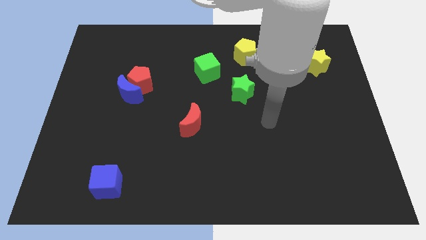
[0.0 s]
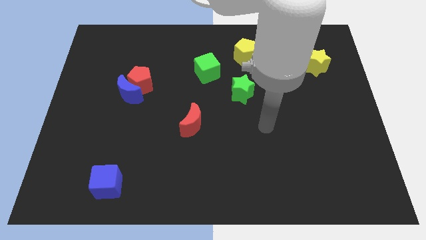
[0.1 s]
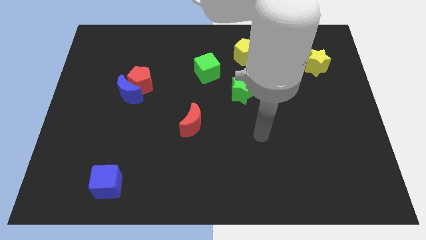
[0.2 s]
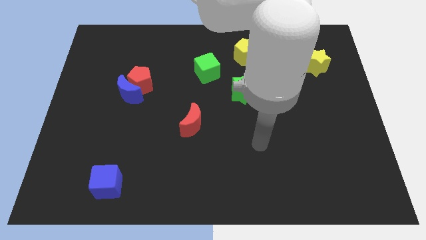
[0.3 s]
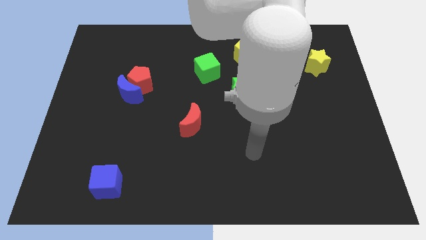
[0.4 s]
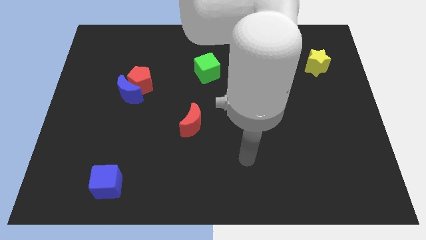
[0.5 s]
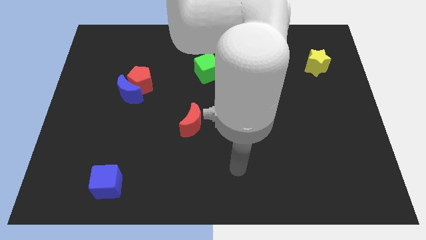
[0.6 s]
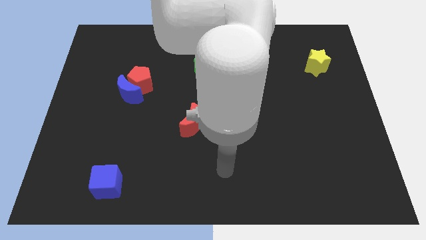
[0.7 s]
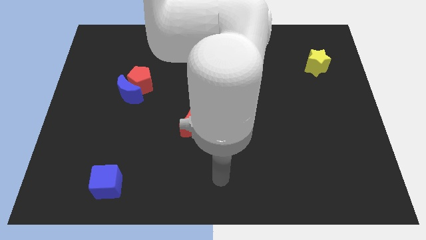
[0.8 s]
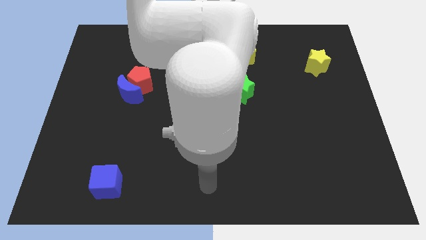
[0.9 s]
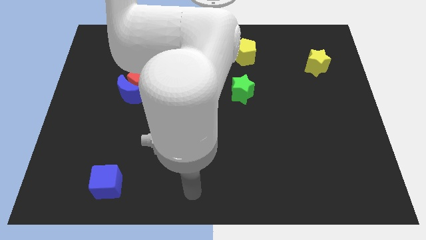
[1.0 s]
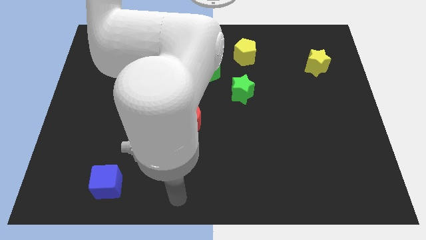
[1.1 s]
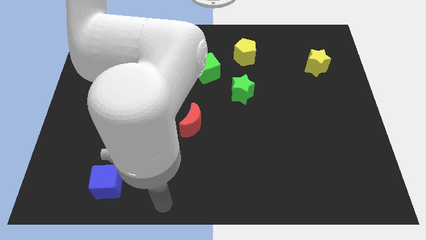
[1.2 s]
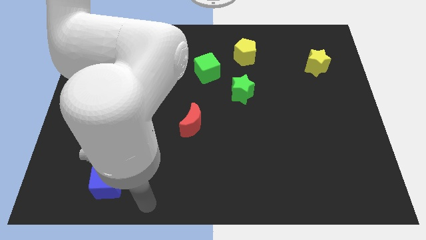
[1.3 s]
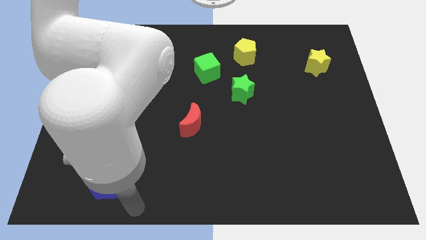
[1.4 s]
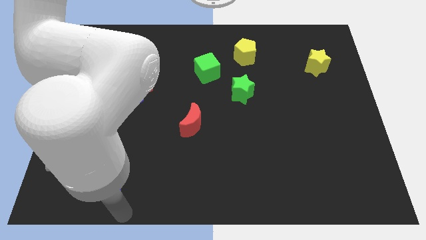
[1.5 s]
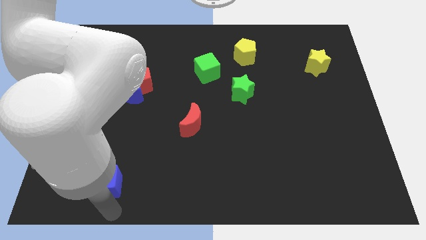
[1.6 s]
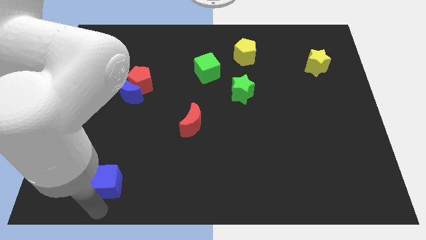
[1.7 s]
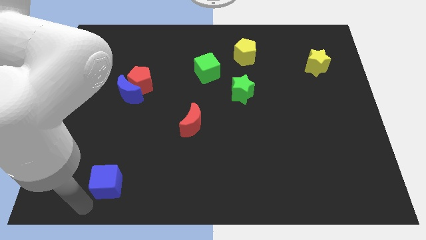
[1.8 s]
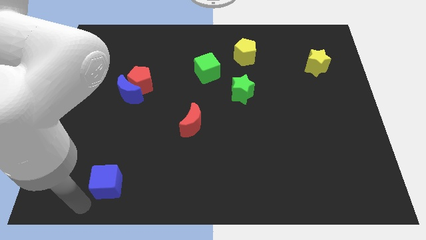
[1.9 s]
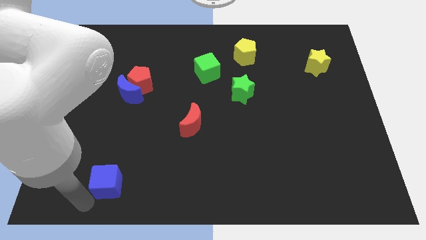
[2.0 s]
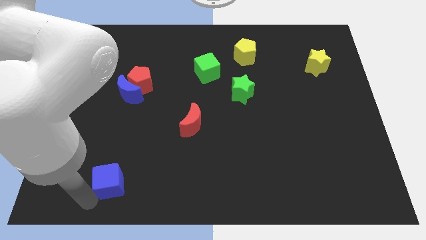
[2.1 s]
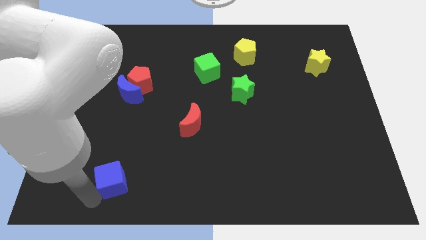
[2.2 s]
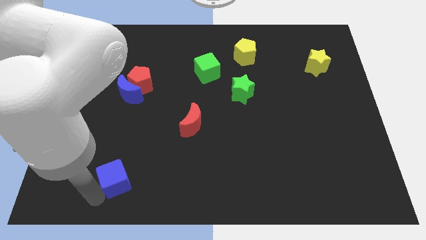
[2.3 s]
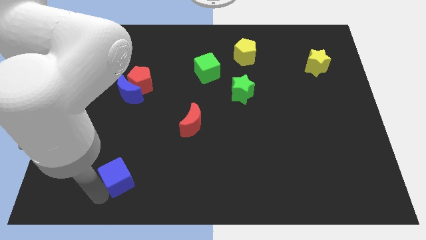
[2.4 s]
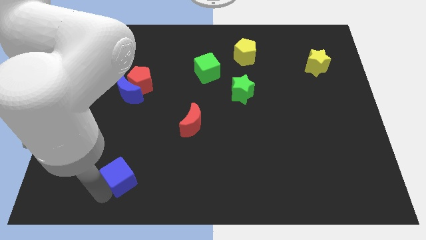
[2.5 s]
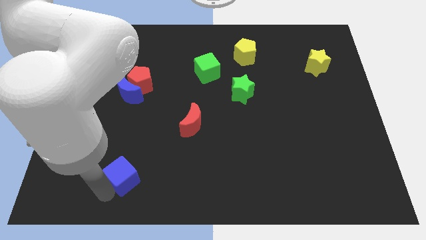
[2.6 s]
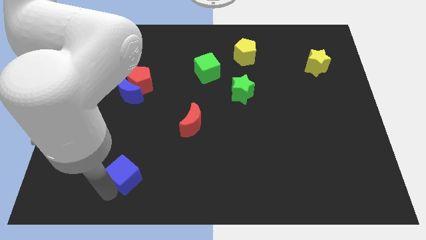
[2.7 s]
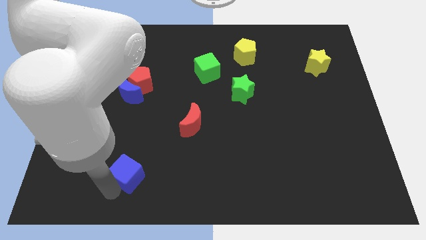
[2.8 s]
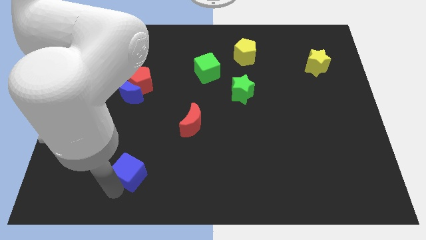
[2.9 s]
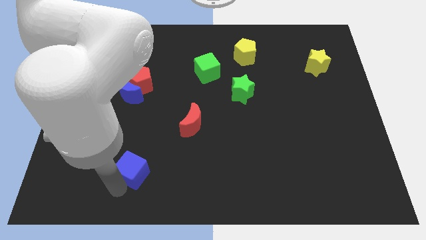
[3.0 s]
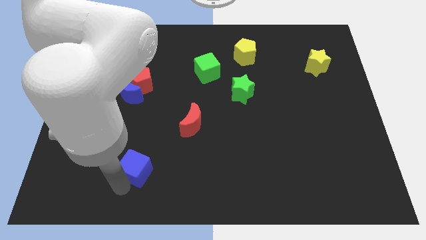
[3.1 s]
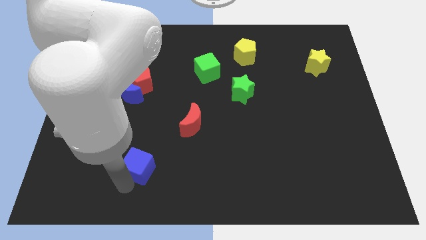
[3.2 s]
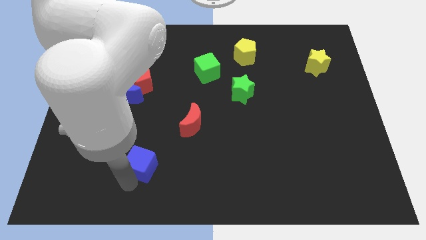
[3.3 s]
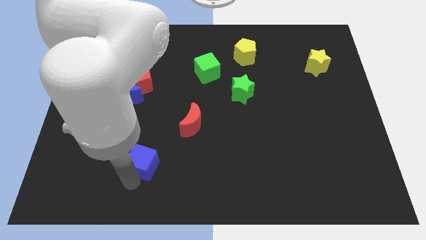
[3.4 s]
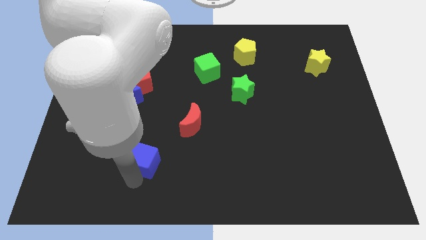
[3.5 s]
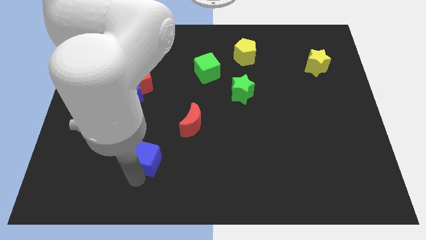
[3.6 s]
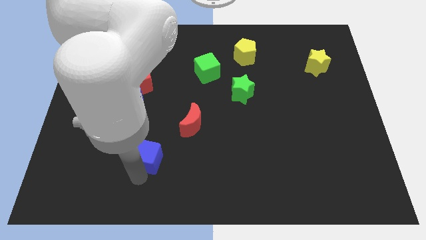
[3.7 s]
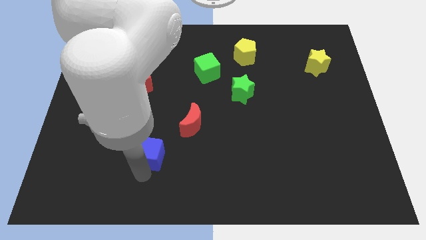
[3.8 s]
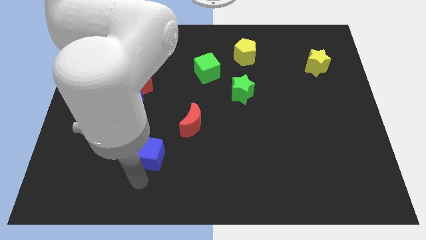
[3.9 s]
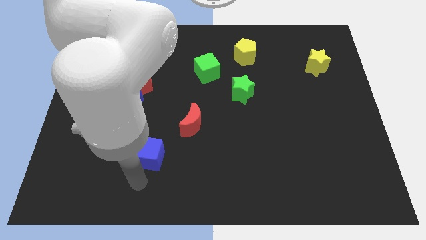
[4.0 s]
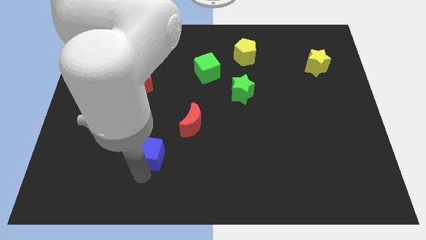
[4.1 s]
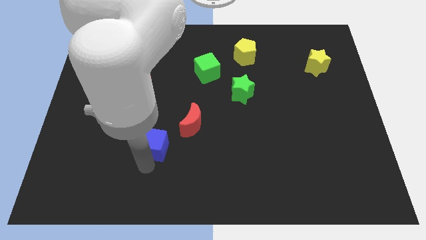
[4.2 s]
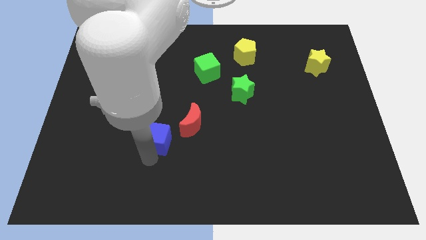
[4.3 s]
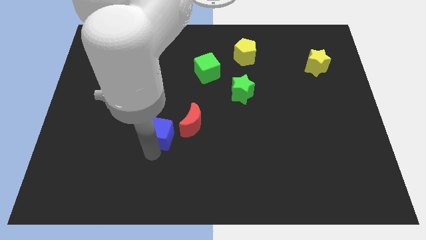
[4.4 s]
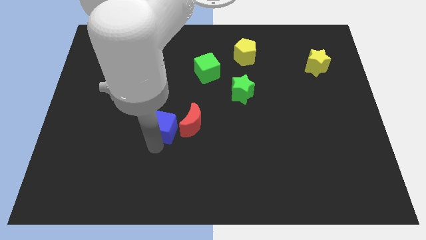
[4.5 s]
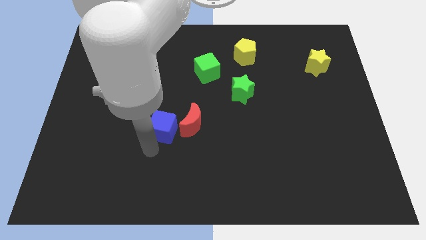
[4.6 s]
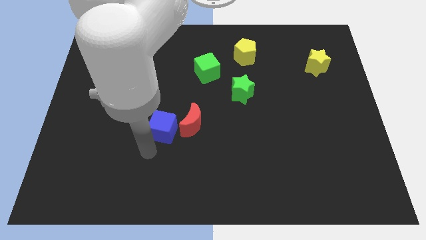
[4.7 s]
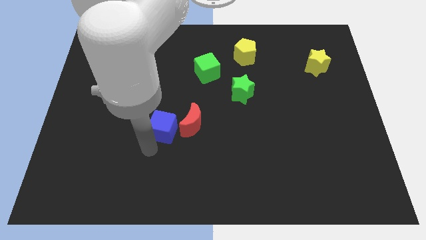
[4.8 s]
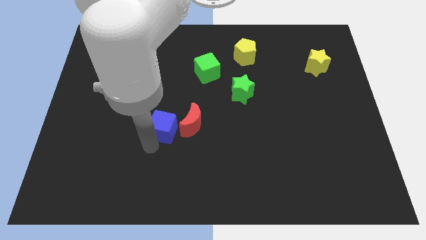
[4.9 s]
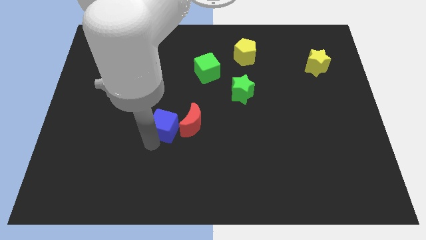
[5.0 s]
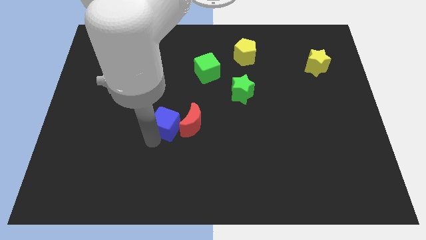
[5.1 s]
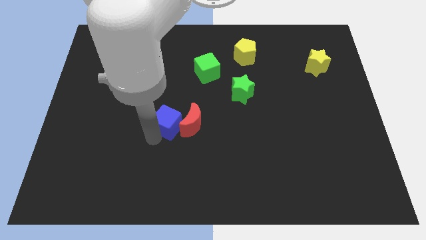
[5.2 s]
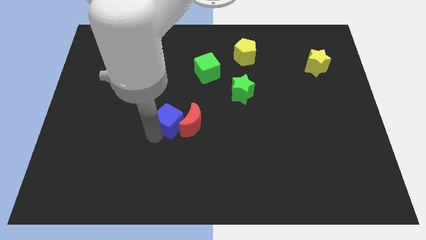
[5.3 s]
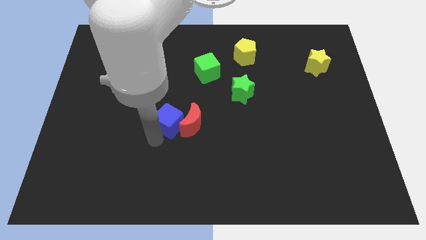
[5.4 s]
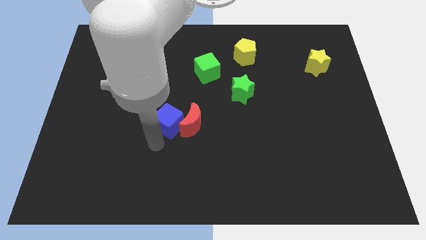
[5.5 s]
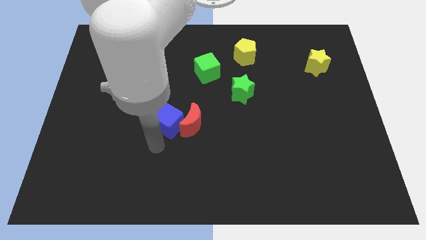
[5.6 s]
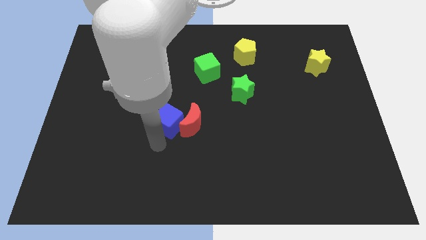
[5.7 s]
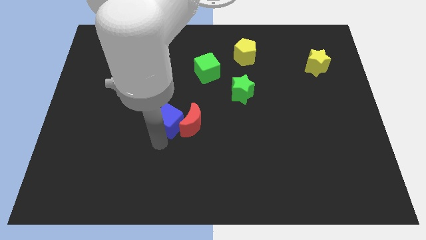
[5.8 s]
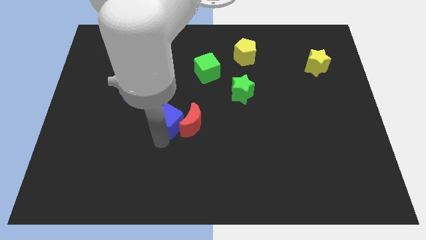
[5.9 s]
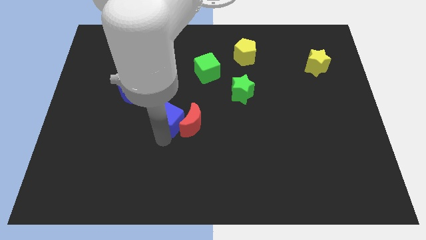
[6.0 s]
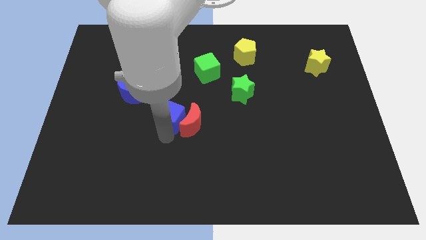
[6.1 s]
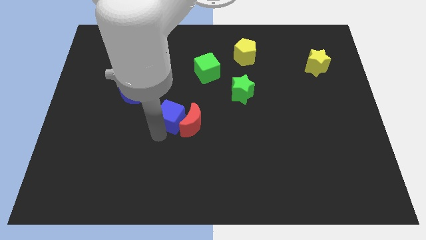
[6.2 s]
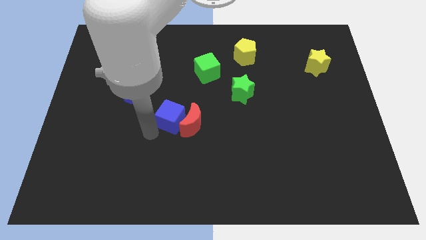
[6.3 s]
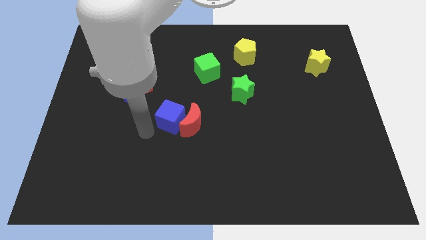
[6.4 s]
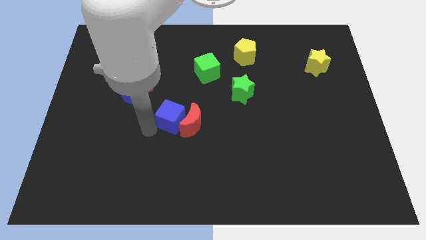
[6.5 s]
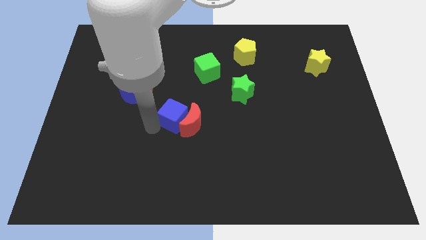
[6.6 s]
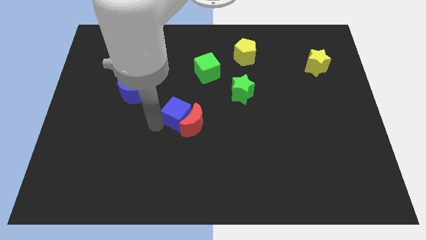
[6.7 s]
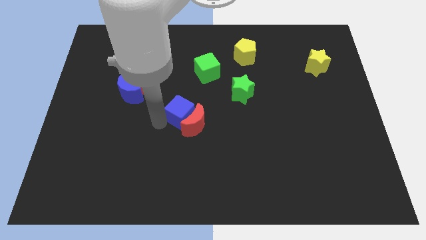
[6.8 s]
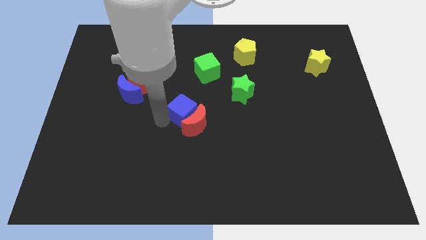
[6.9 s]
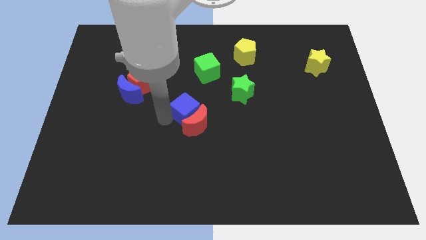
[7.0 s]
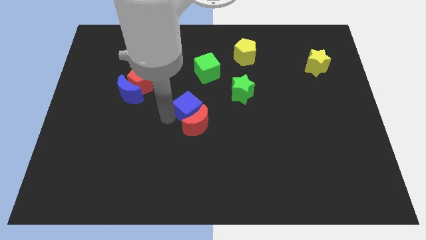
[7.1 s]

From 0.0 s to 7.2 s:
put the blue cube to the bottom side of the green cube

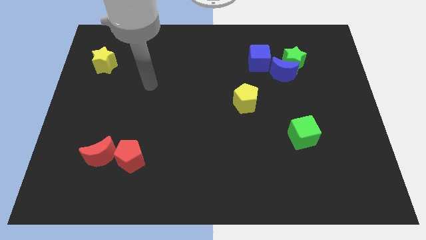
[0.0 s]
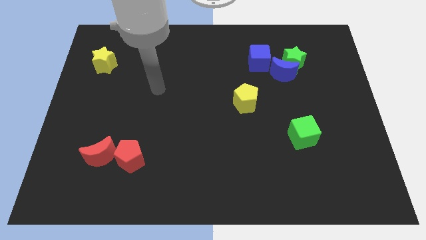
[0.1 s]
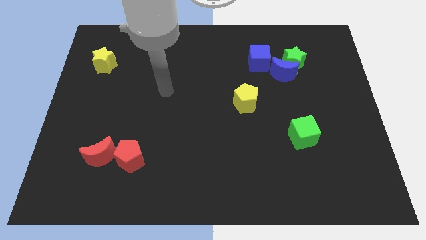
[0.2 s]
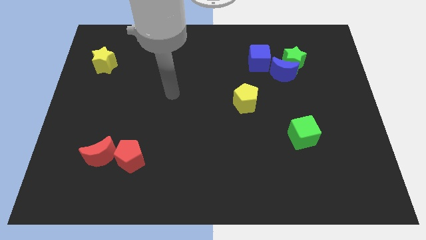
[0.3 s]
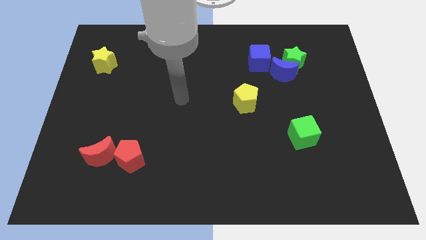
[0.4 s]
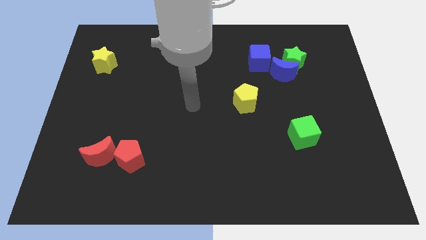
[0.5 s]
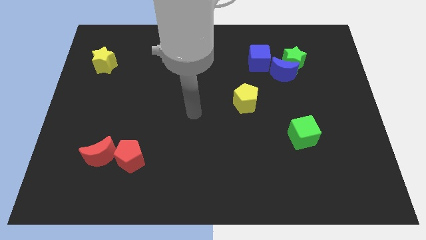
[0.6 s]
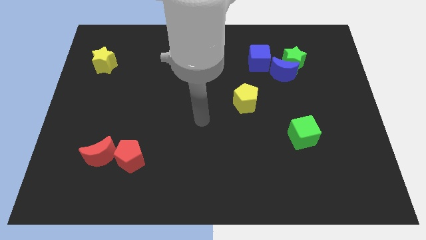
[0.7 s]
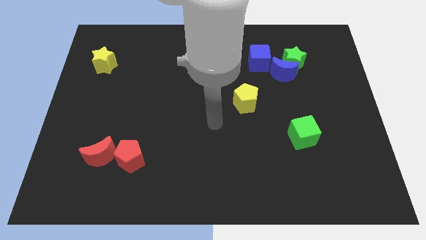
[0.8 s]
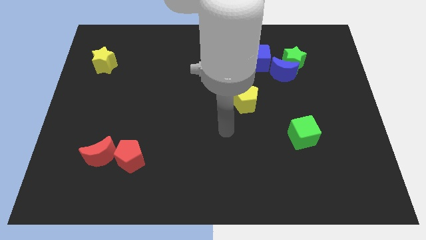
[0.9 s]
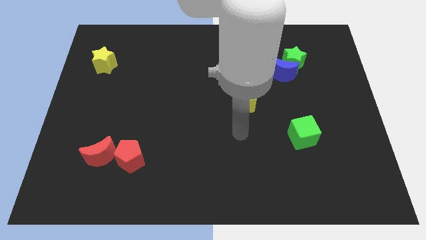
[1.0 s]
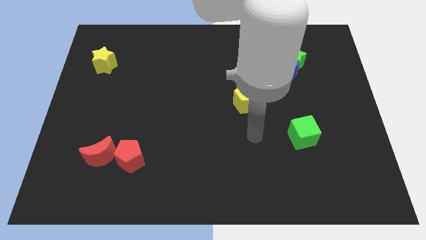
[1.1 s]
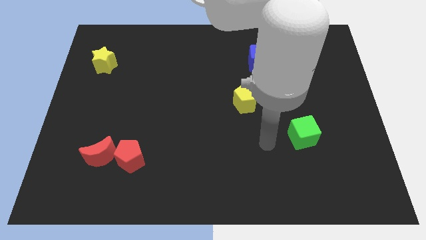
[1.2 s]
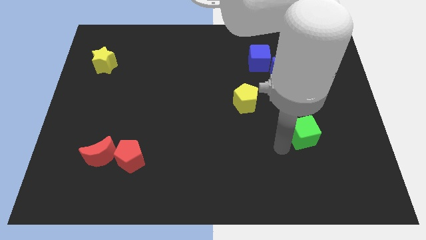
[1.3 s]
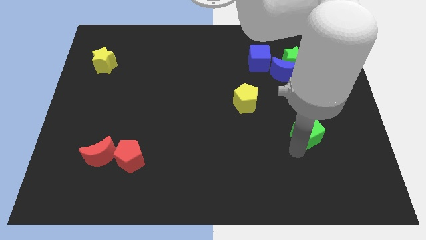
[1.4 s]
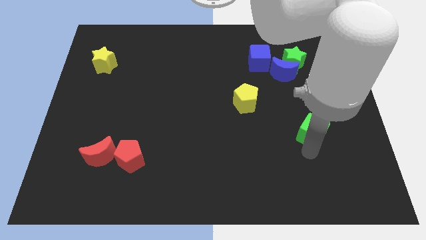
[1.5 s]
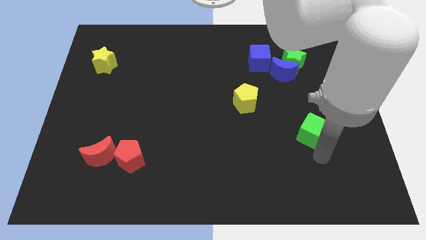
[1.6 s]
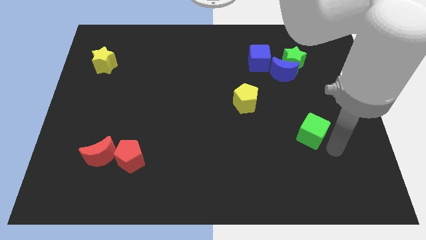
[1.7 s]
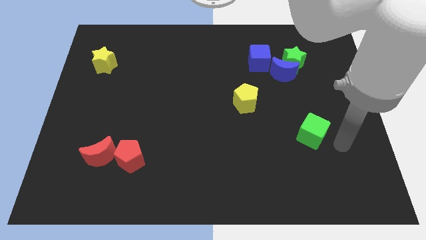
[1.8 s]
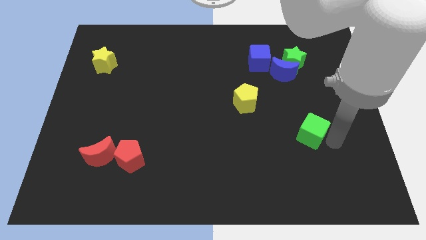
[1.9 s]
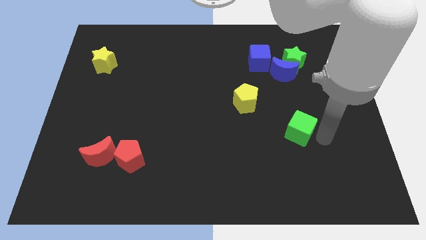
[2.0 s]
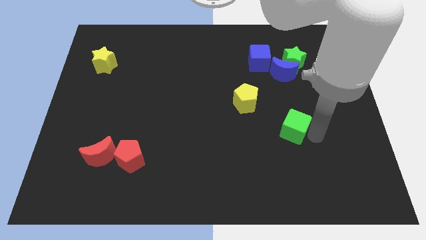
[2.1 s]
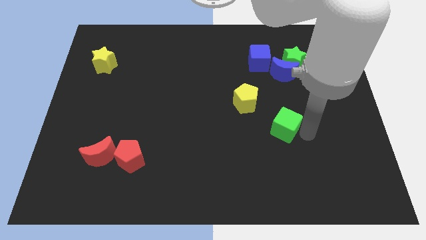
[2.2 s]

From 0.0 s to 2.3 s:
push the green cube to the bottom right of the yellow pentagon
